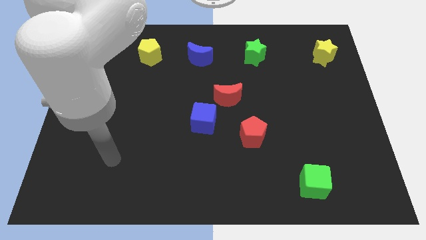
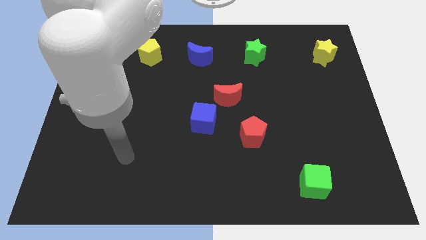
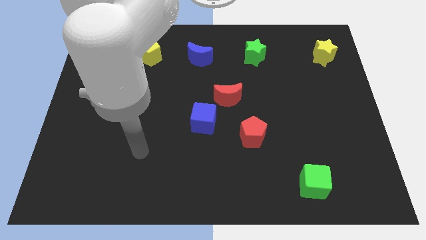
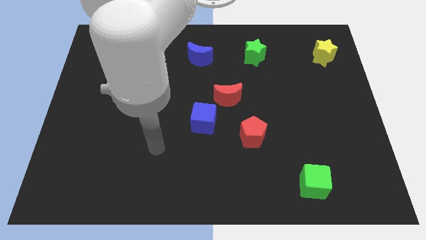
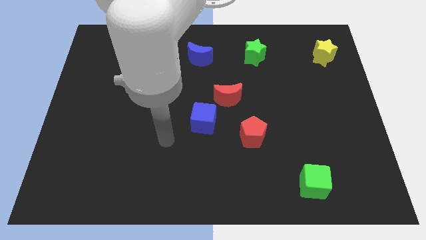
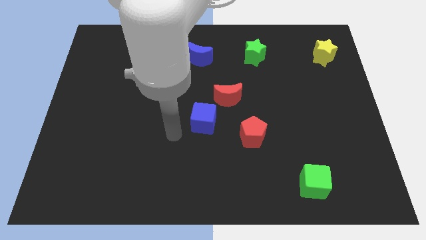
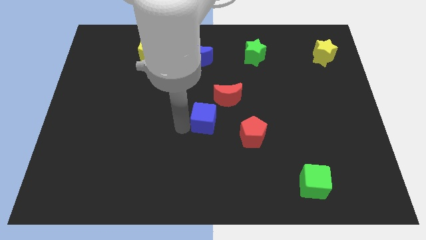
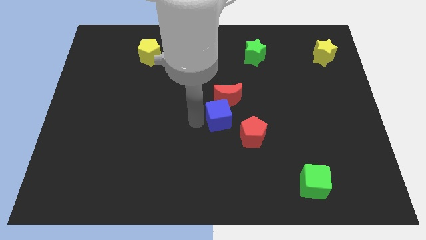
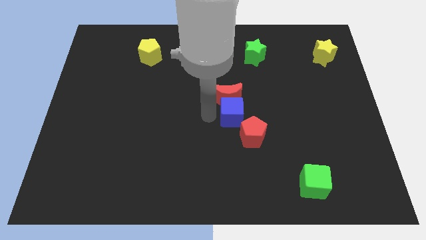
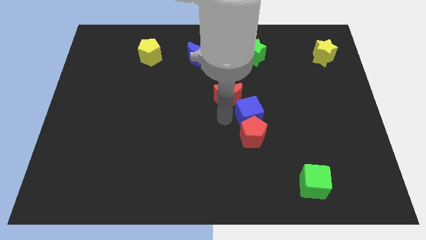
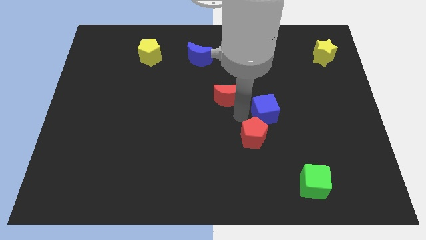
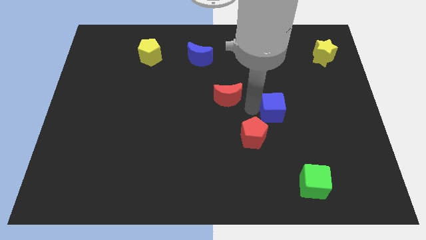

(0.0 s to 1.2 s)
move the red moon away from the blue cube

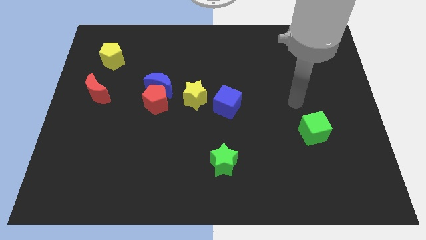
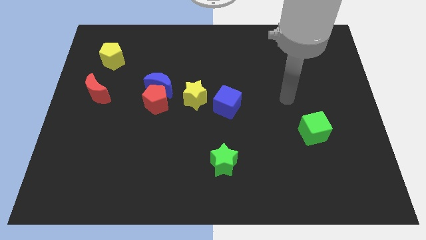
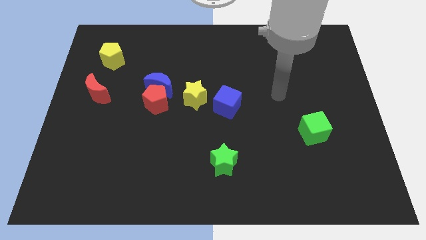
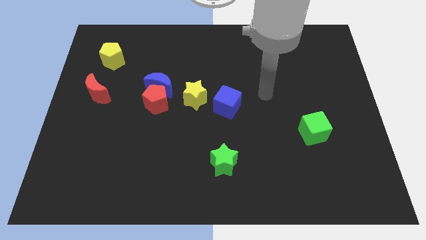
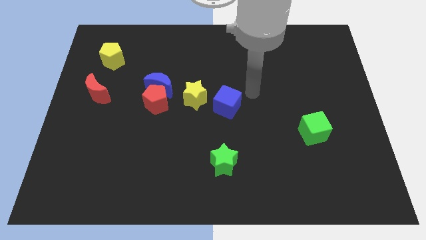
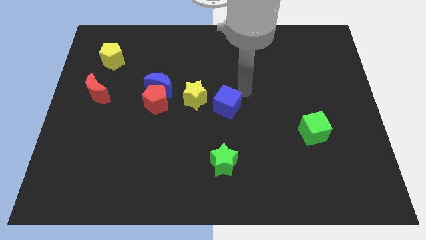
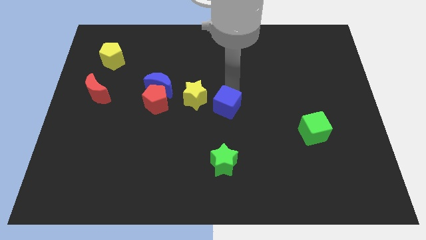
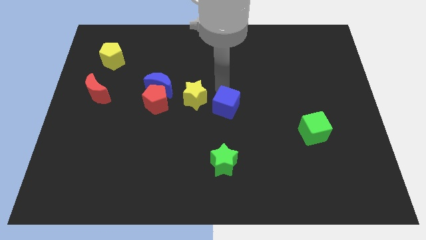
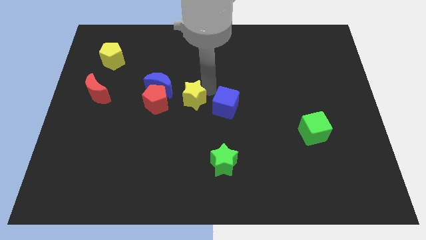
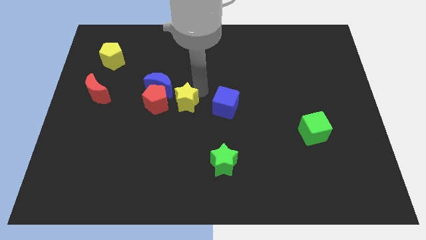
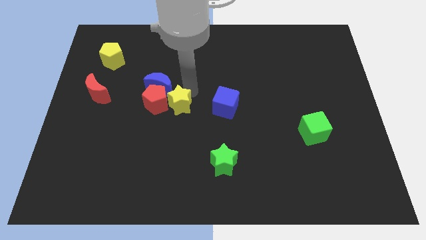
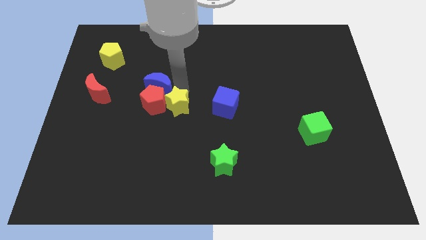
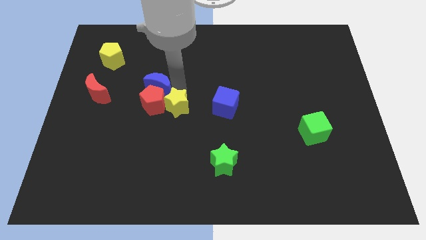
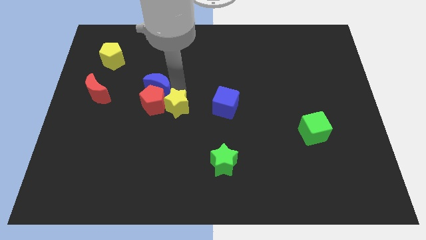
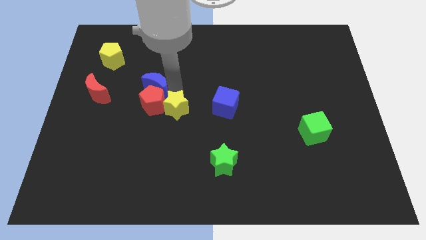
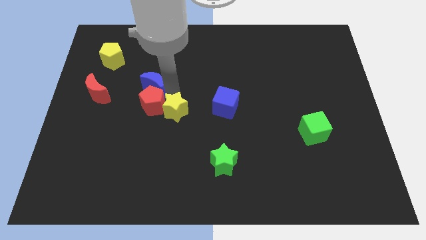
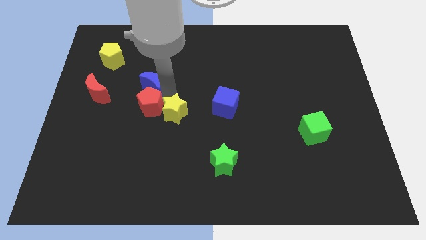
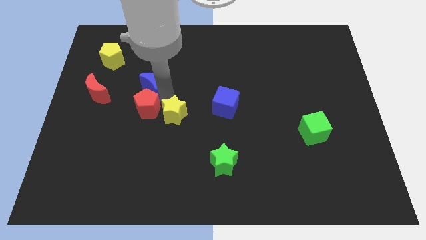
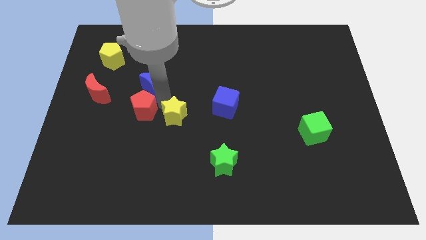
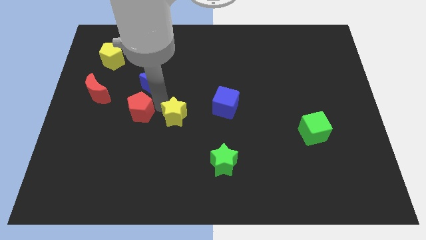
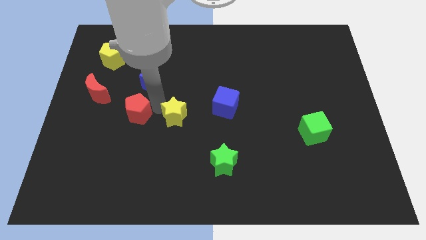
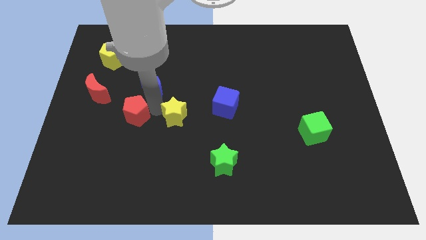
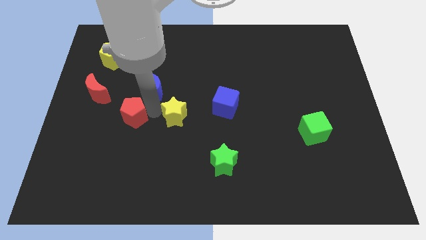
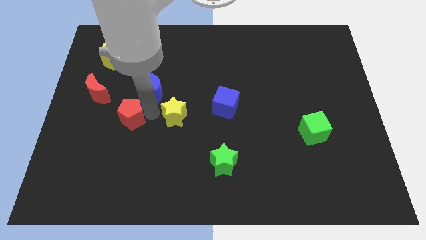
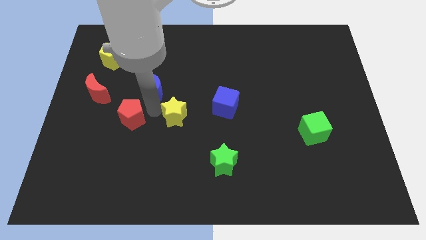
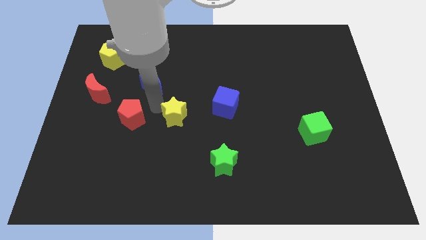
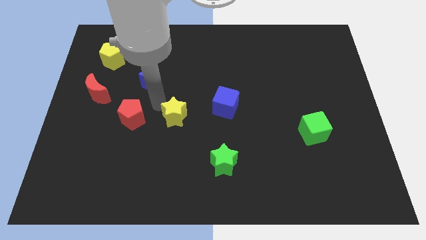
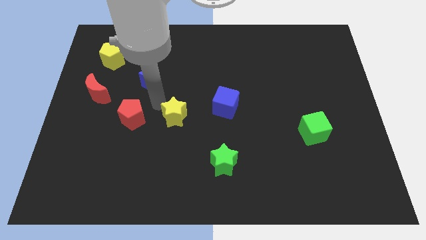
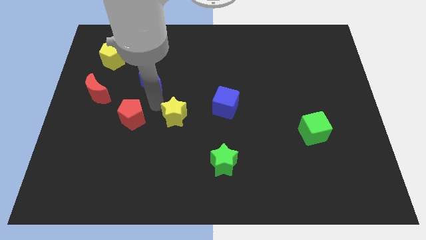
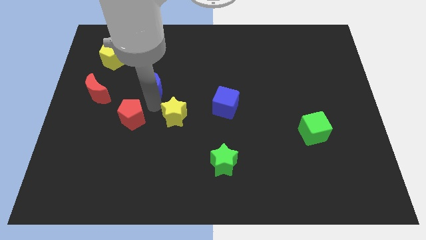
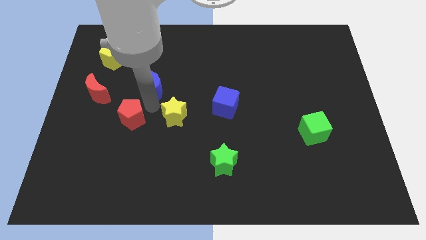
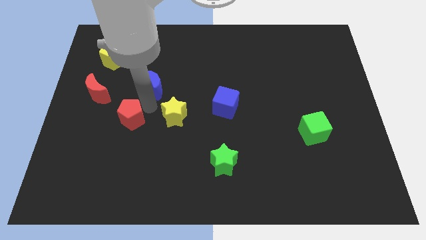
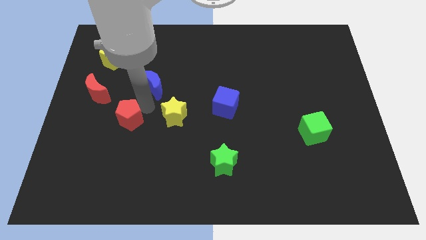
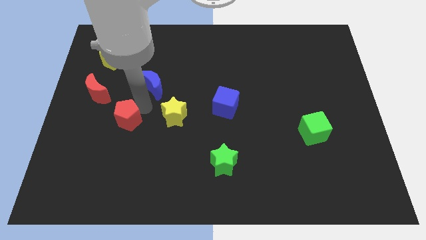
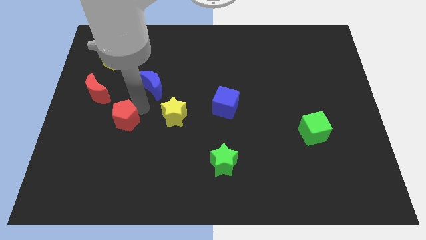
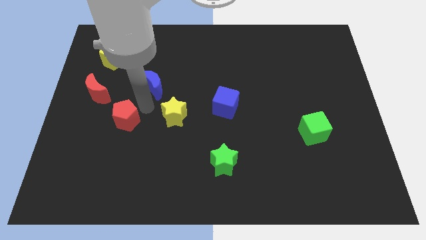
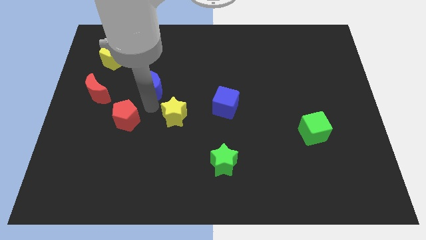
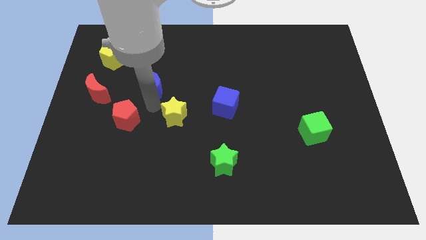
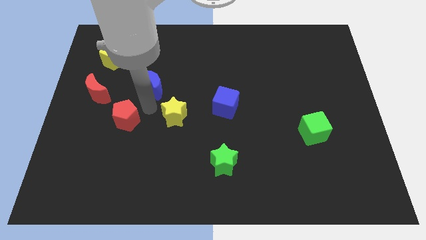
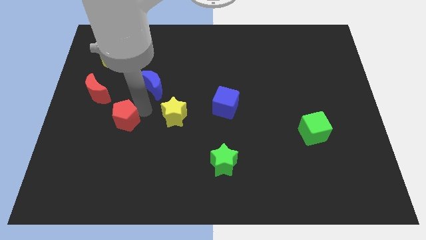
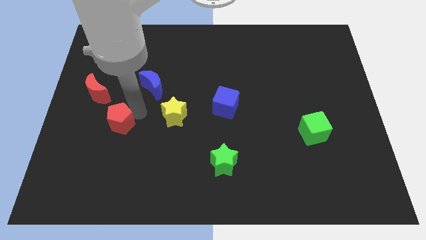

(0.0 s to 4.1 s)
move the red pentagon away from the blue moon and yellow star

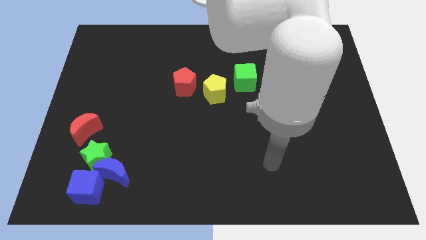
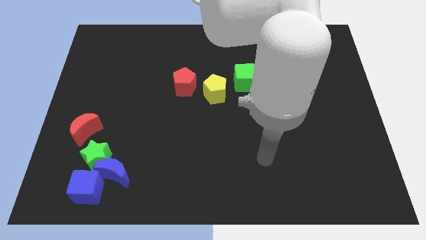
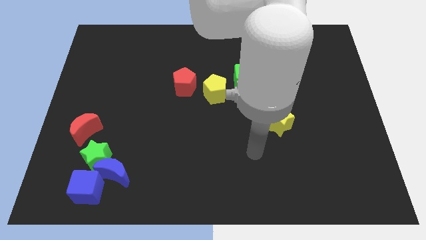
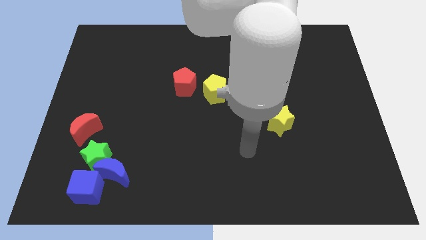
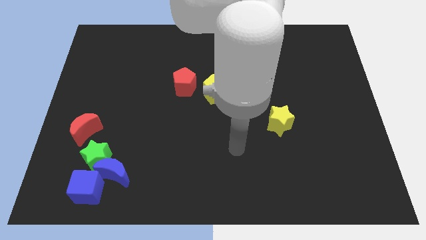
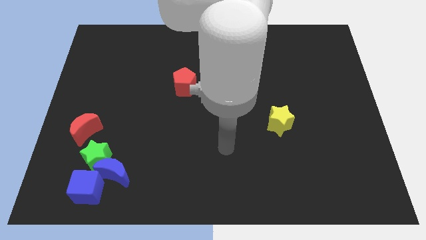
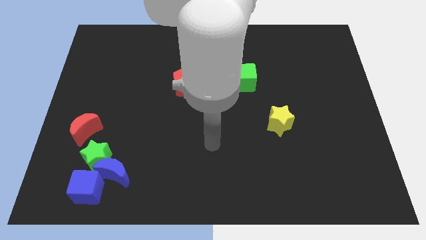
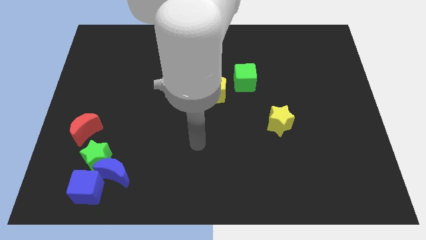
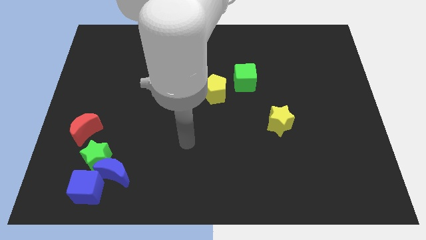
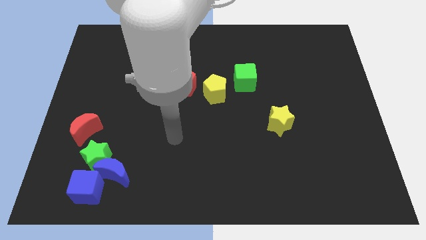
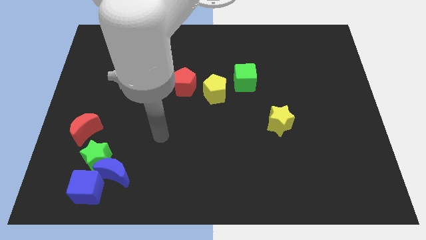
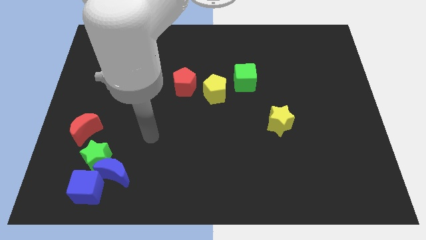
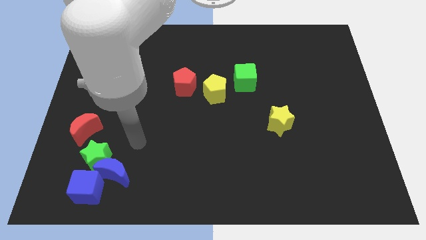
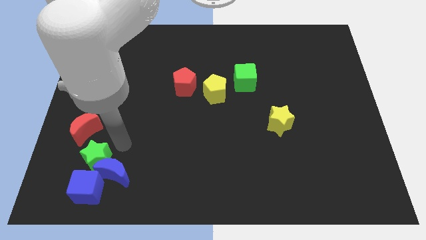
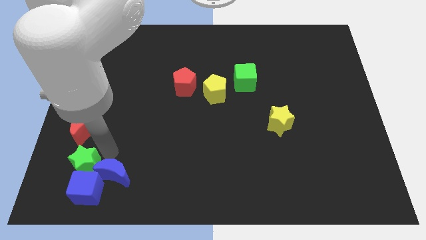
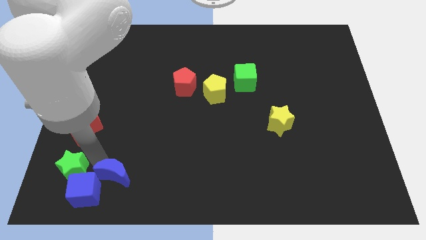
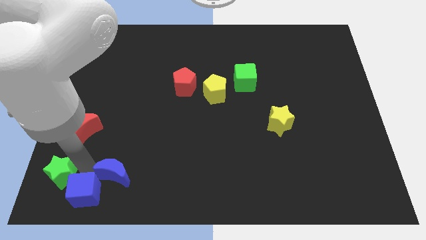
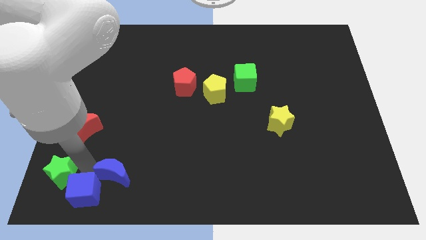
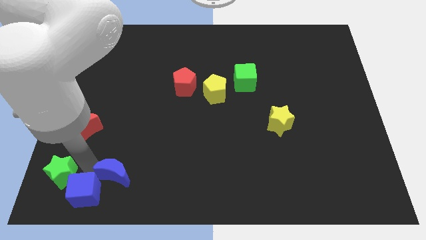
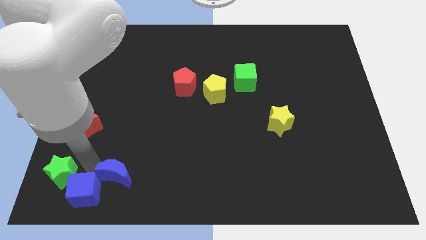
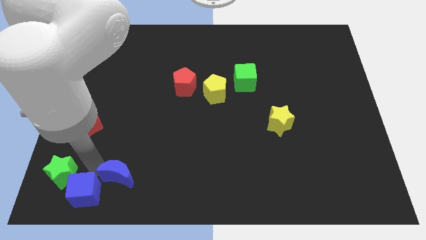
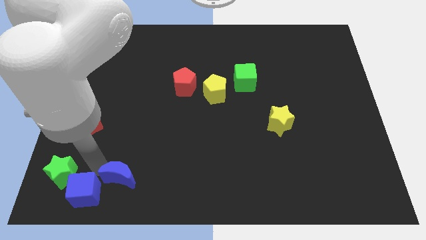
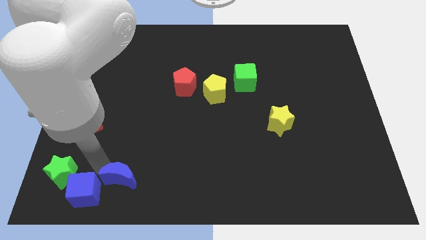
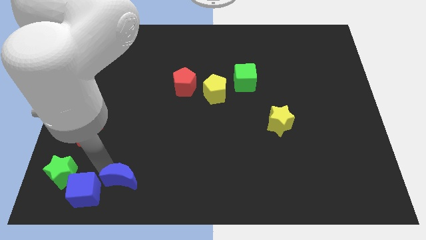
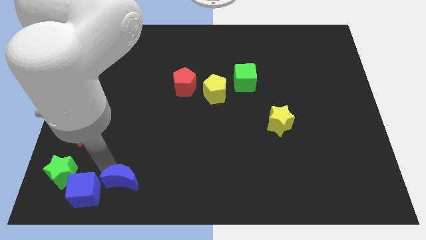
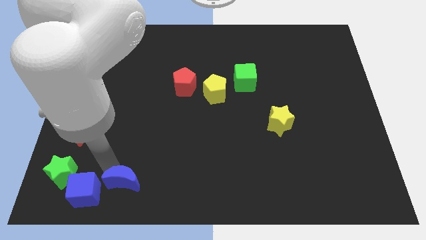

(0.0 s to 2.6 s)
pull the blue moon apart from the green star and blue cube

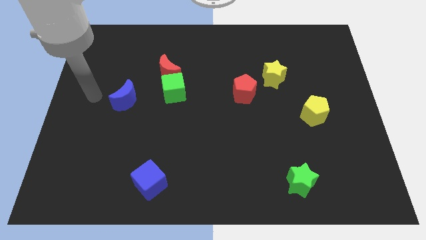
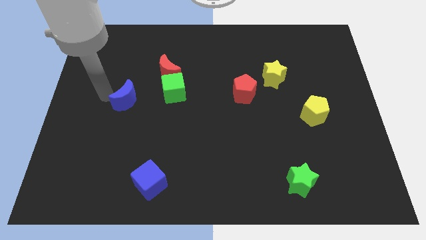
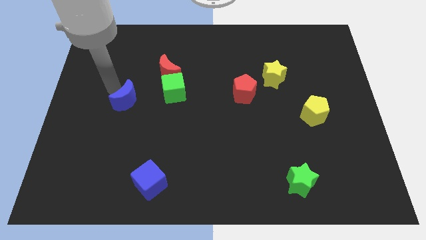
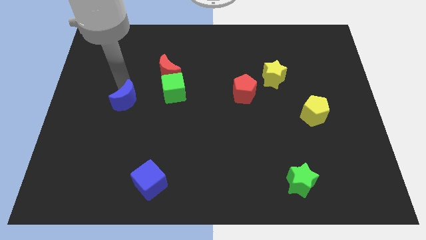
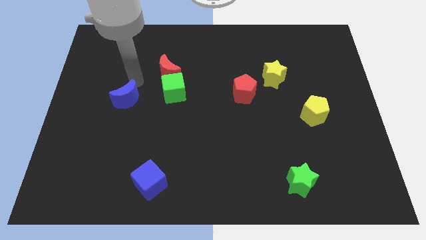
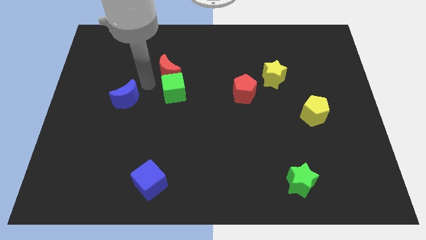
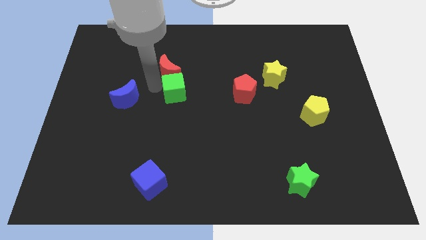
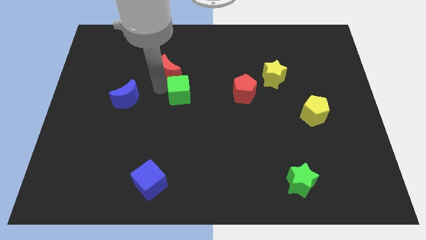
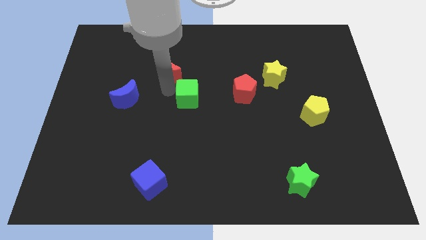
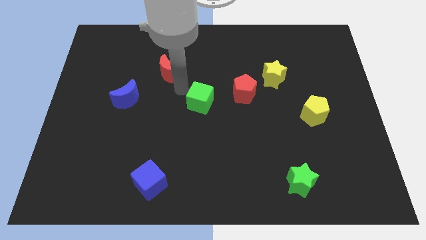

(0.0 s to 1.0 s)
separate the red moon from the green cube

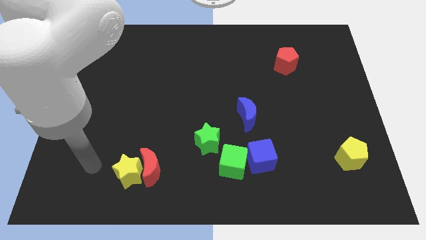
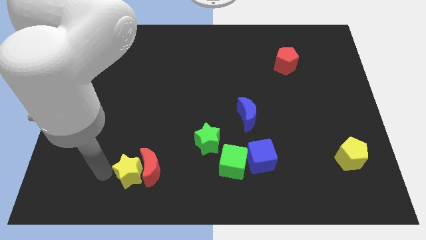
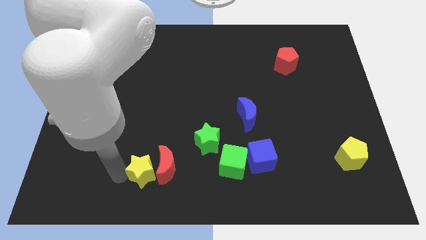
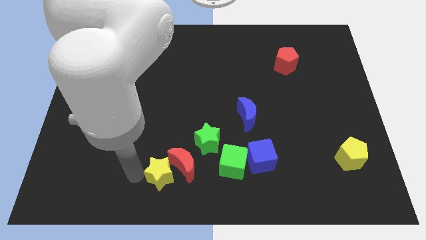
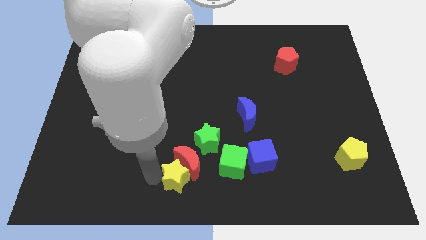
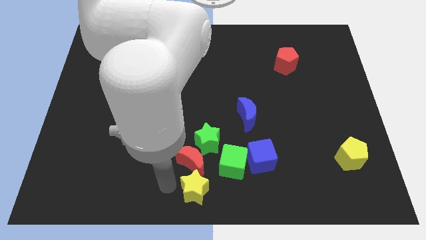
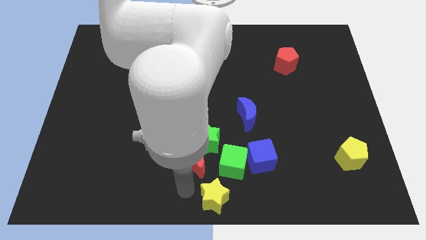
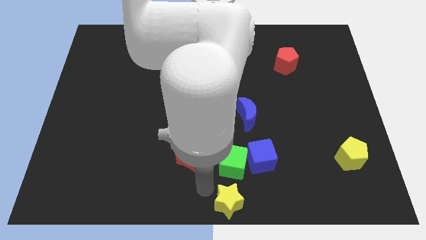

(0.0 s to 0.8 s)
separate the red moon from the yellow star
